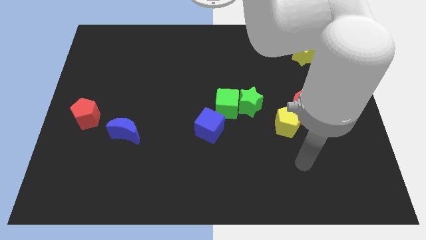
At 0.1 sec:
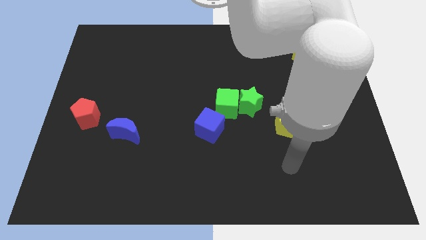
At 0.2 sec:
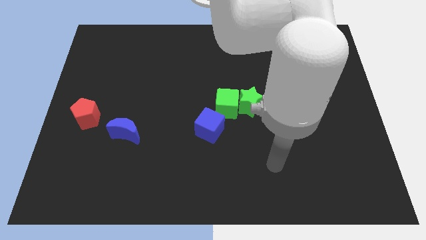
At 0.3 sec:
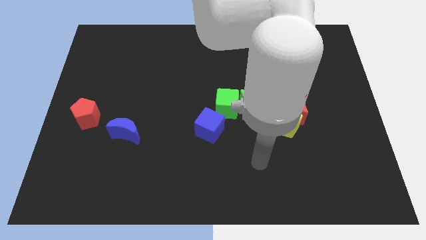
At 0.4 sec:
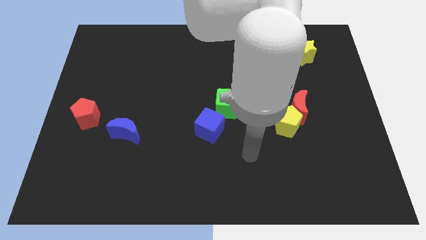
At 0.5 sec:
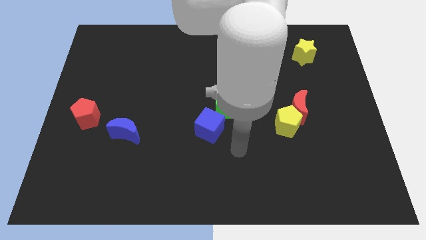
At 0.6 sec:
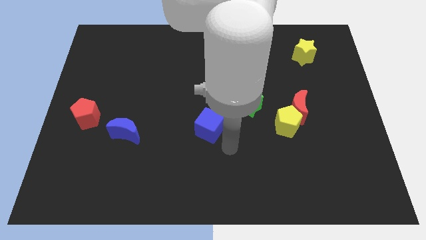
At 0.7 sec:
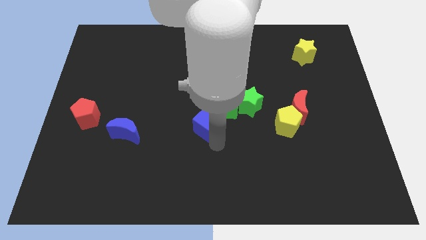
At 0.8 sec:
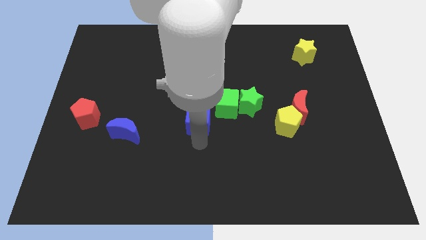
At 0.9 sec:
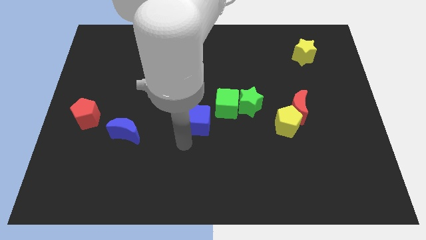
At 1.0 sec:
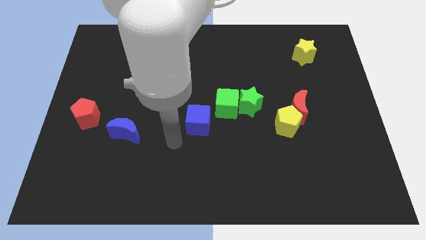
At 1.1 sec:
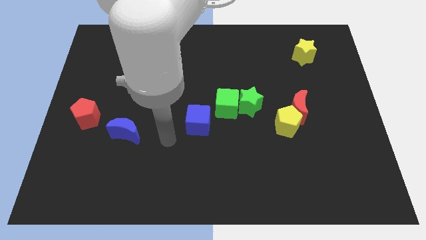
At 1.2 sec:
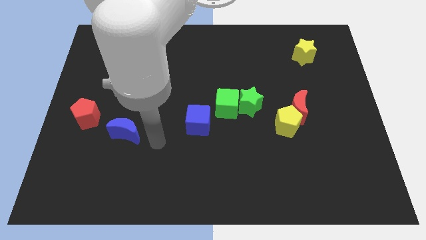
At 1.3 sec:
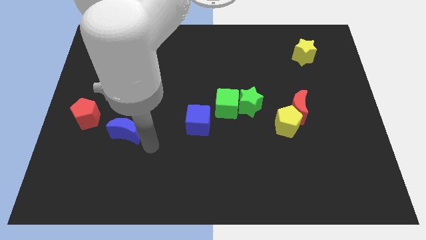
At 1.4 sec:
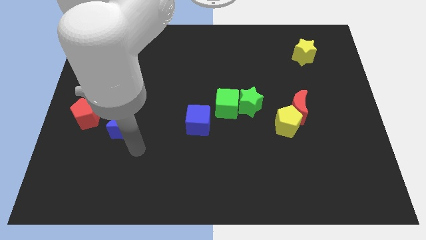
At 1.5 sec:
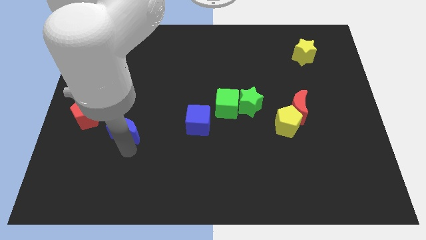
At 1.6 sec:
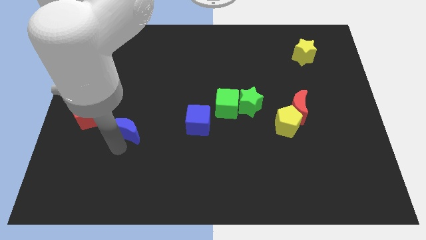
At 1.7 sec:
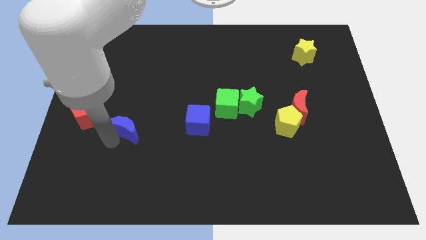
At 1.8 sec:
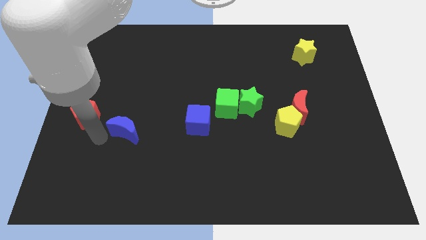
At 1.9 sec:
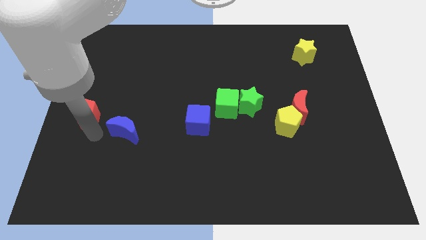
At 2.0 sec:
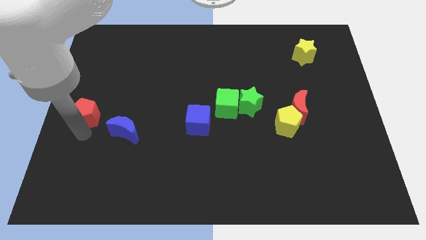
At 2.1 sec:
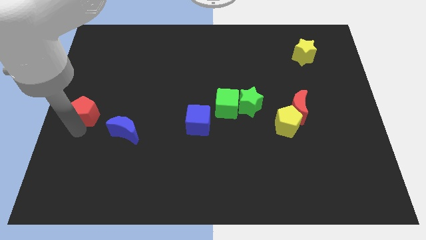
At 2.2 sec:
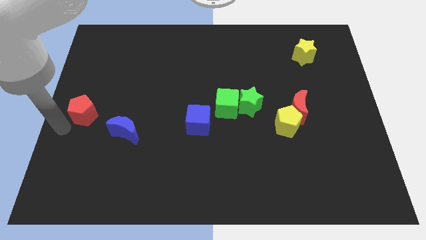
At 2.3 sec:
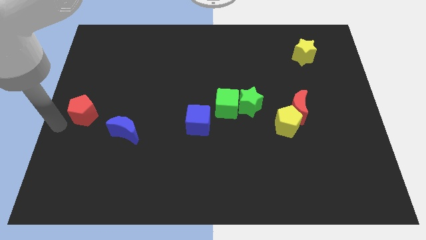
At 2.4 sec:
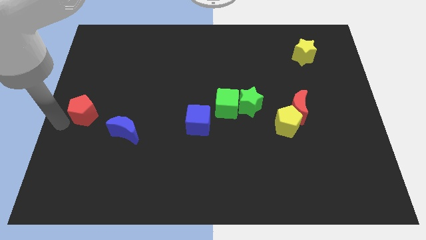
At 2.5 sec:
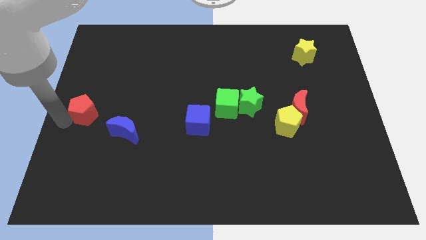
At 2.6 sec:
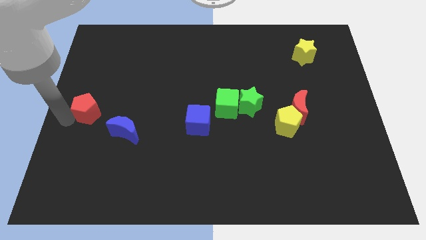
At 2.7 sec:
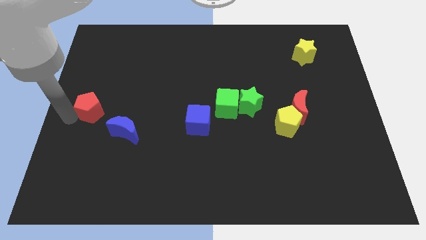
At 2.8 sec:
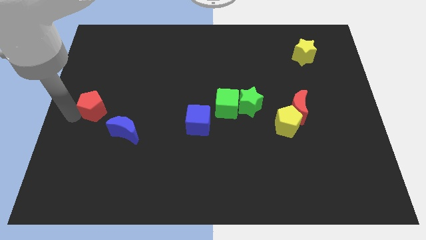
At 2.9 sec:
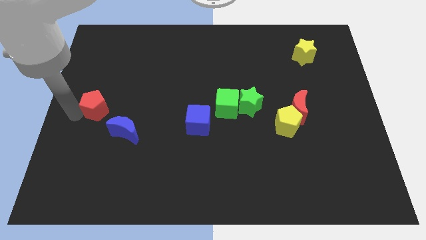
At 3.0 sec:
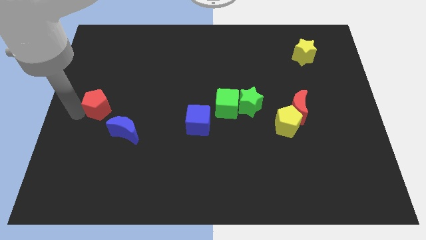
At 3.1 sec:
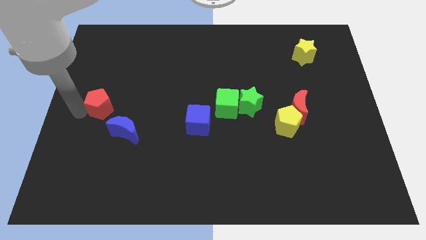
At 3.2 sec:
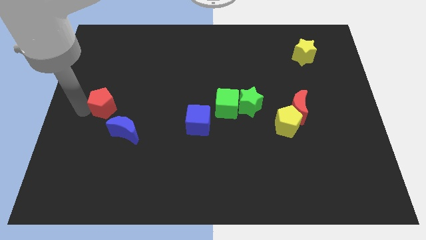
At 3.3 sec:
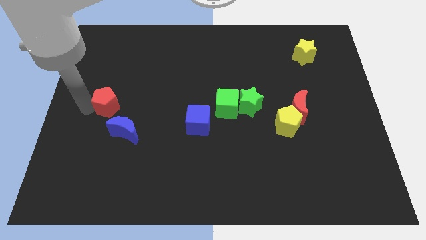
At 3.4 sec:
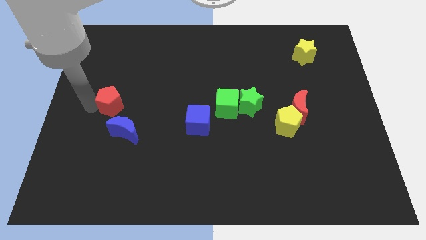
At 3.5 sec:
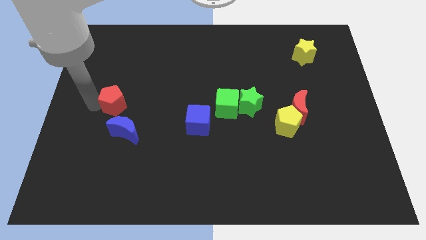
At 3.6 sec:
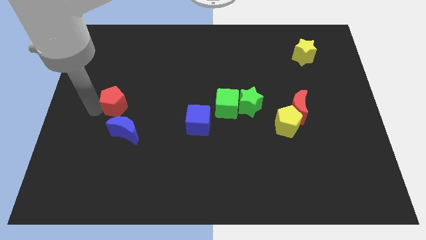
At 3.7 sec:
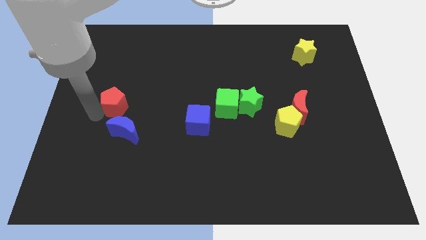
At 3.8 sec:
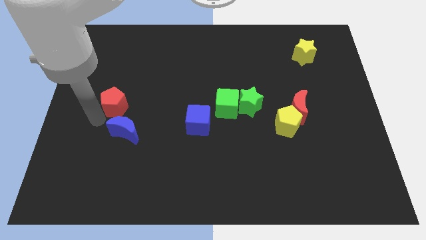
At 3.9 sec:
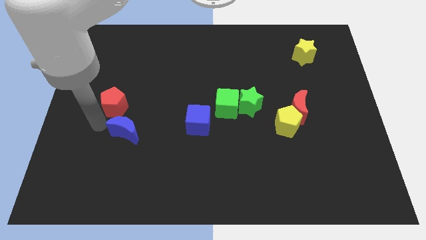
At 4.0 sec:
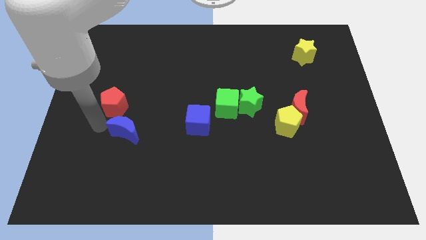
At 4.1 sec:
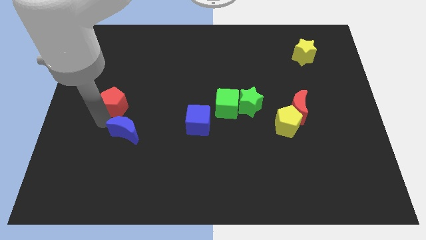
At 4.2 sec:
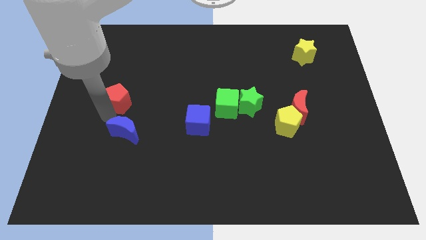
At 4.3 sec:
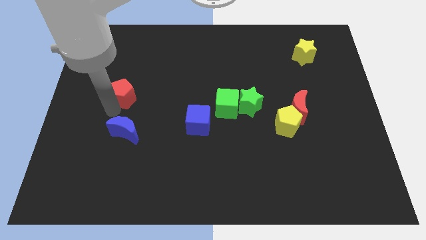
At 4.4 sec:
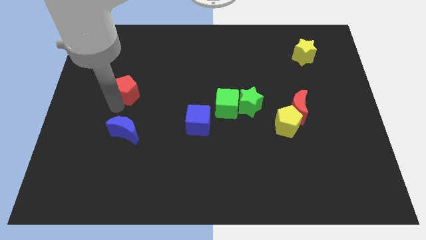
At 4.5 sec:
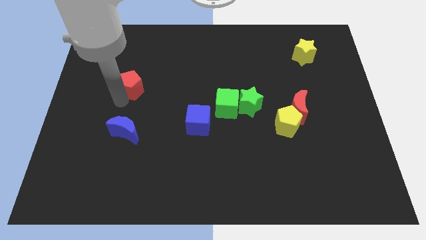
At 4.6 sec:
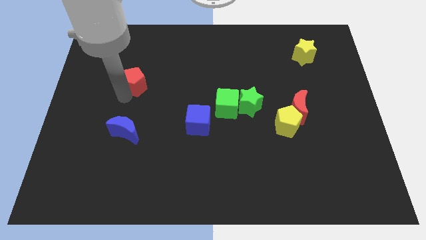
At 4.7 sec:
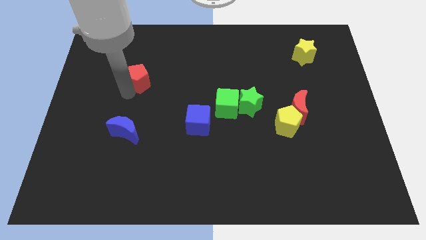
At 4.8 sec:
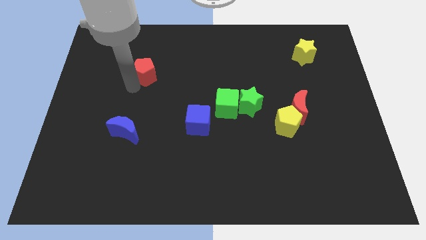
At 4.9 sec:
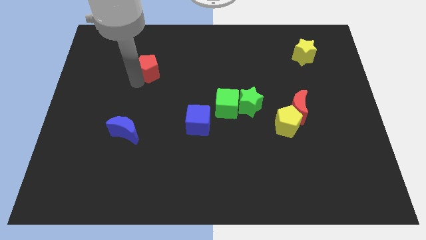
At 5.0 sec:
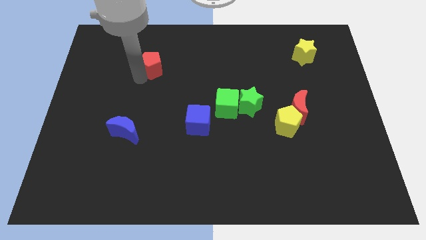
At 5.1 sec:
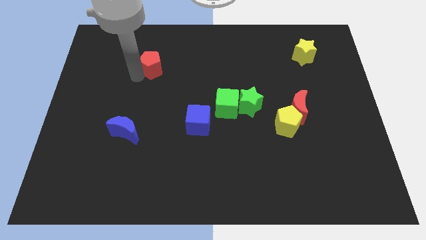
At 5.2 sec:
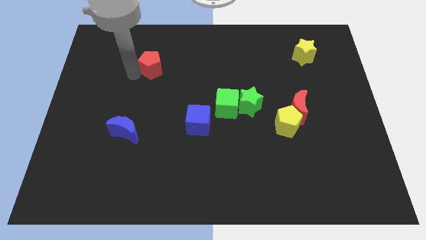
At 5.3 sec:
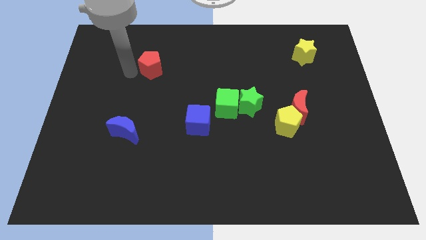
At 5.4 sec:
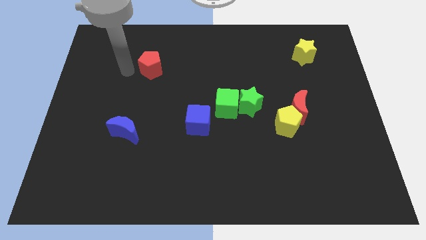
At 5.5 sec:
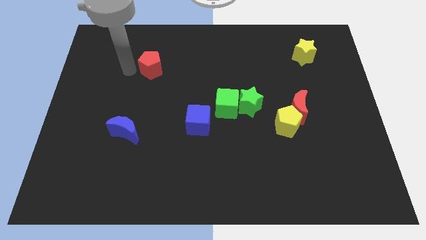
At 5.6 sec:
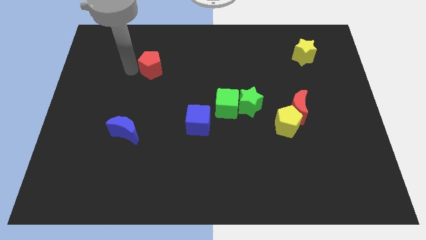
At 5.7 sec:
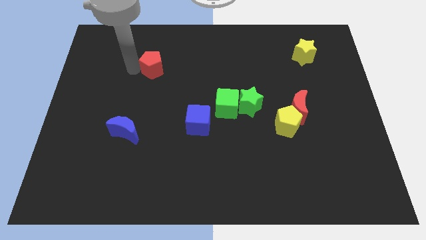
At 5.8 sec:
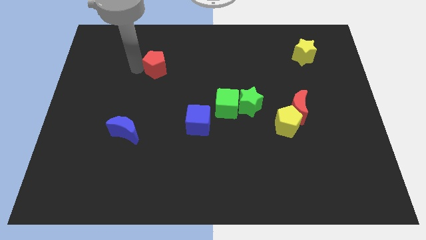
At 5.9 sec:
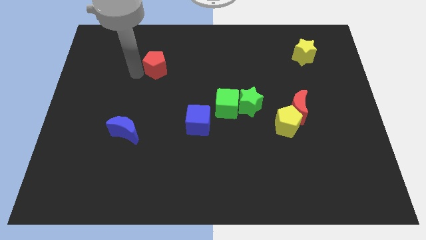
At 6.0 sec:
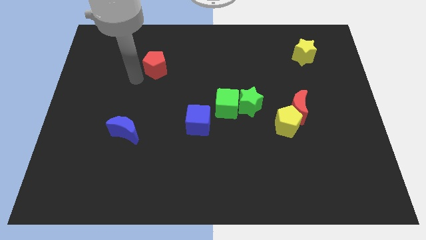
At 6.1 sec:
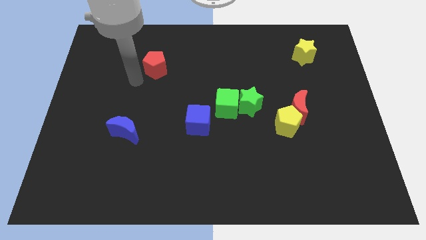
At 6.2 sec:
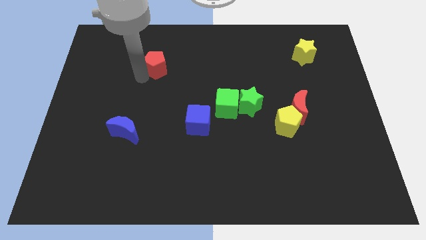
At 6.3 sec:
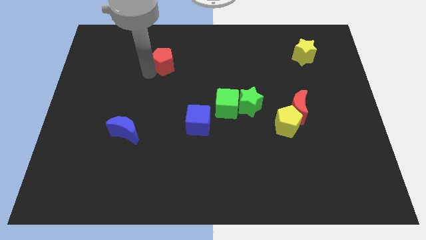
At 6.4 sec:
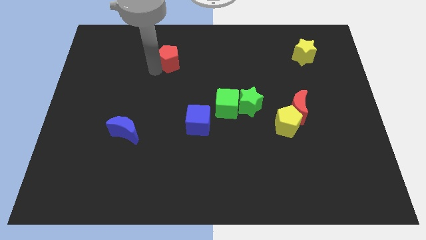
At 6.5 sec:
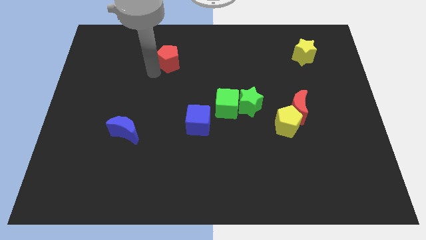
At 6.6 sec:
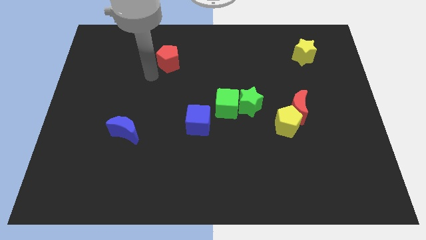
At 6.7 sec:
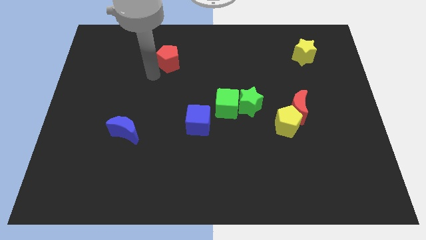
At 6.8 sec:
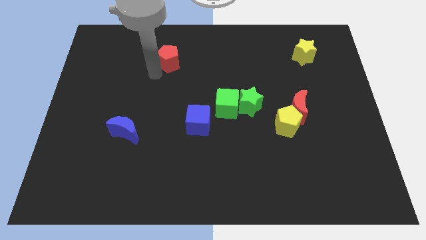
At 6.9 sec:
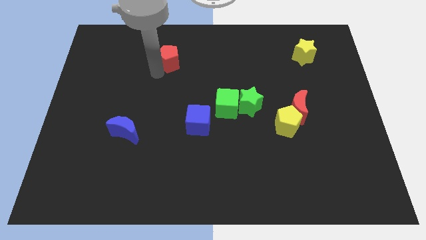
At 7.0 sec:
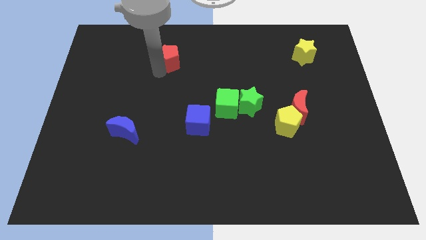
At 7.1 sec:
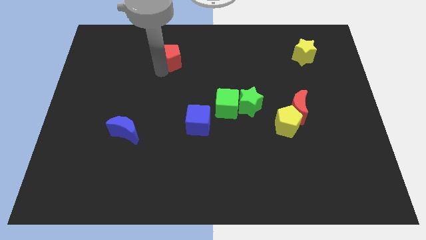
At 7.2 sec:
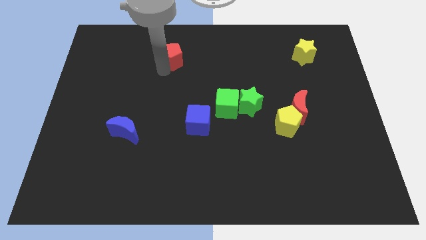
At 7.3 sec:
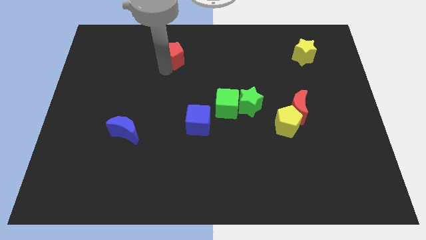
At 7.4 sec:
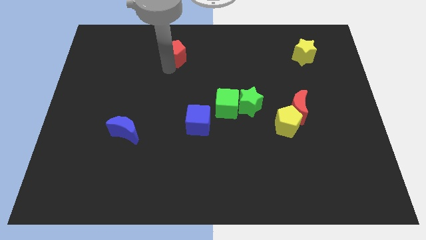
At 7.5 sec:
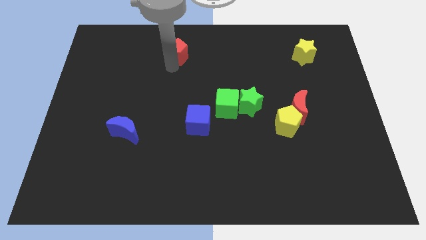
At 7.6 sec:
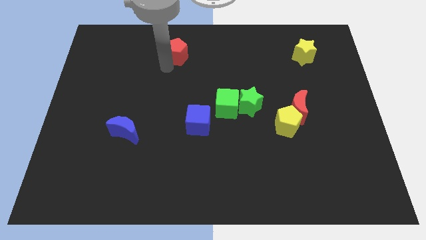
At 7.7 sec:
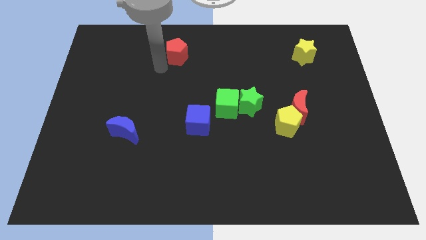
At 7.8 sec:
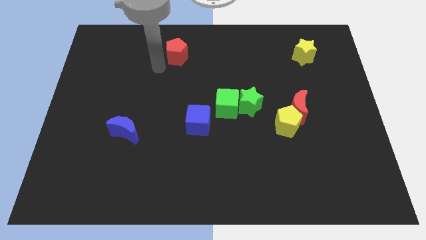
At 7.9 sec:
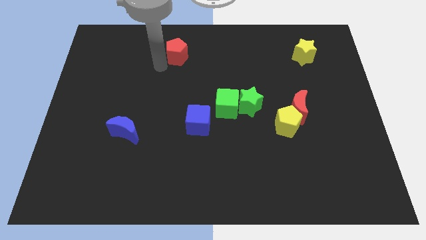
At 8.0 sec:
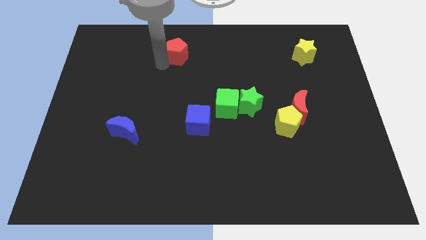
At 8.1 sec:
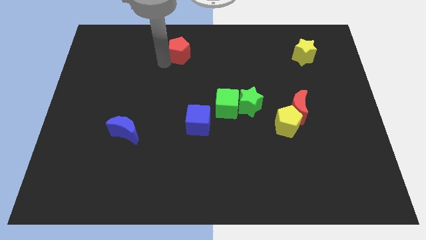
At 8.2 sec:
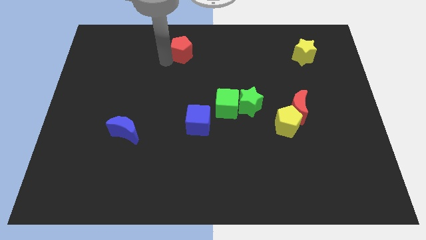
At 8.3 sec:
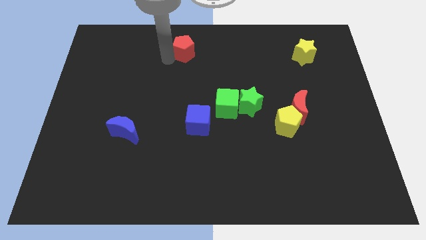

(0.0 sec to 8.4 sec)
move the red pentagon to the top side
